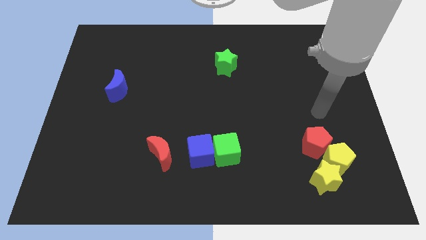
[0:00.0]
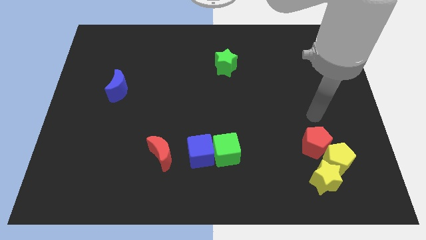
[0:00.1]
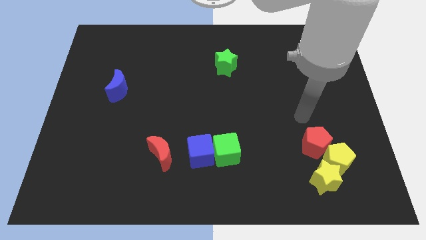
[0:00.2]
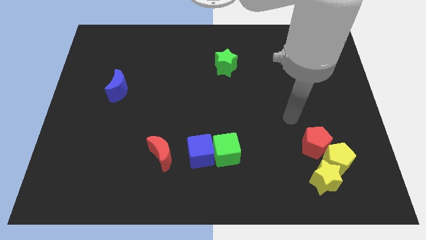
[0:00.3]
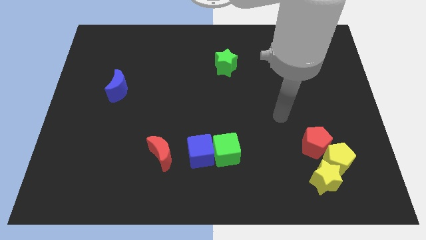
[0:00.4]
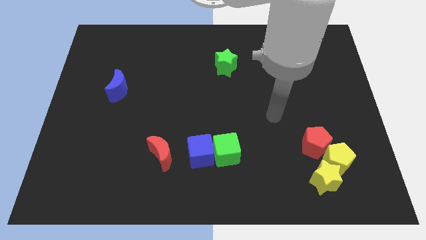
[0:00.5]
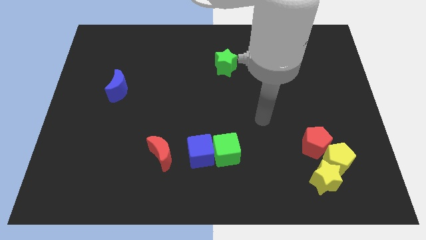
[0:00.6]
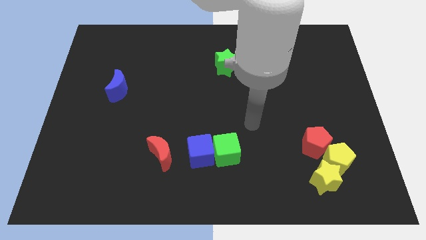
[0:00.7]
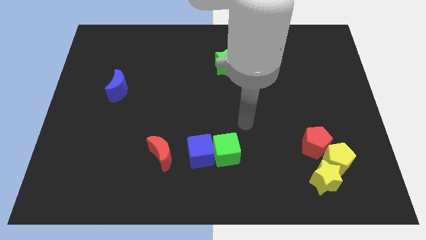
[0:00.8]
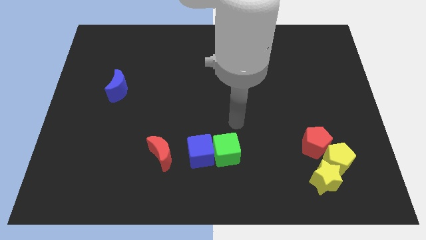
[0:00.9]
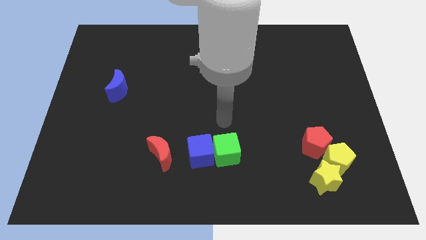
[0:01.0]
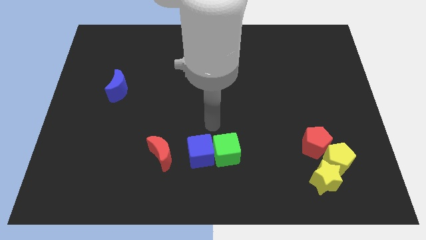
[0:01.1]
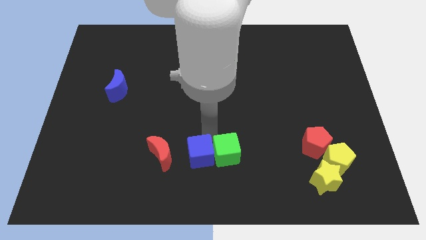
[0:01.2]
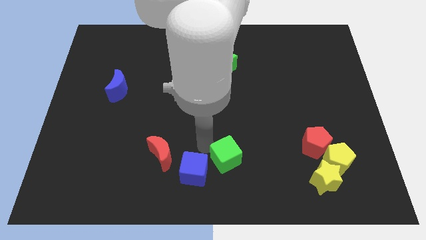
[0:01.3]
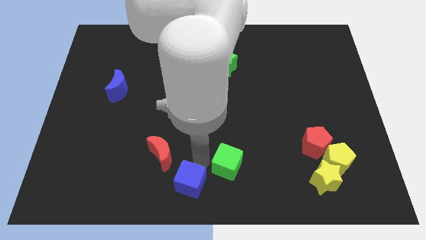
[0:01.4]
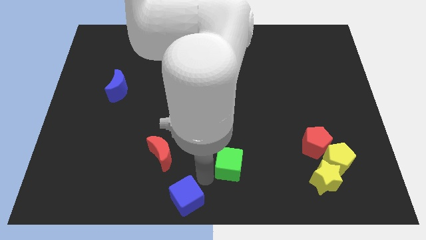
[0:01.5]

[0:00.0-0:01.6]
pull the green cube apart from the blue cube

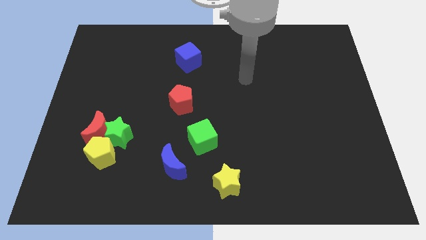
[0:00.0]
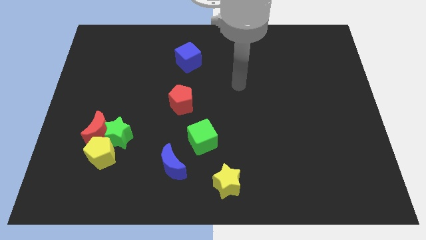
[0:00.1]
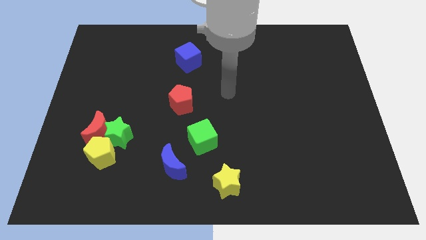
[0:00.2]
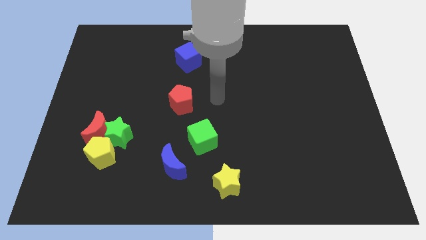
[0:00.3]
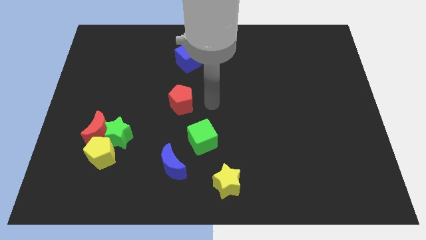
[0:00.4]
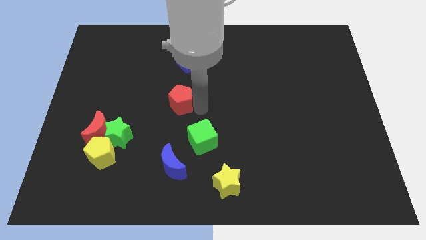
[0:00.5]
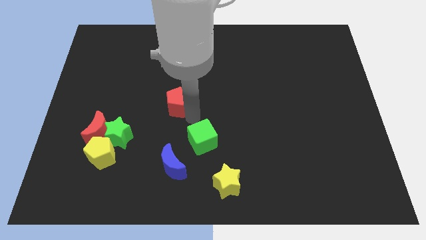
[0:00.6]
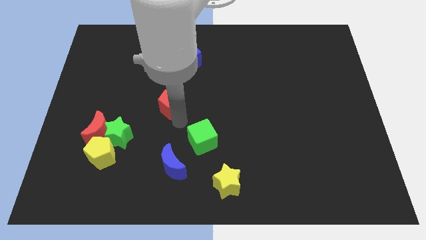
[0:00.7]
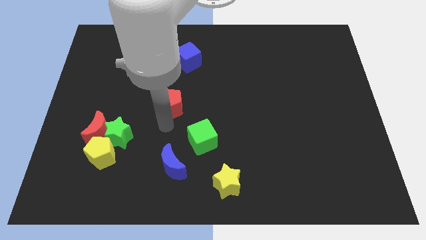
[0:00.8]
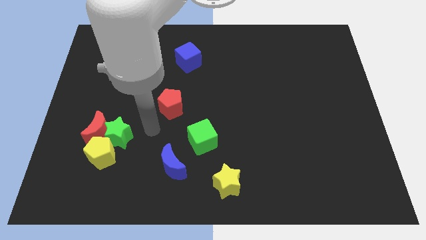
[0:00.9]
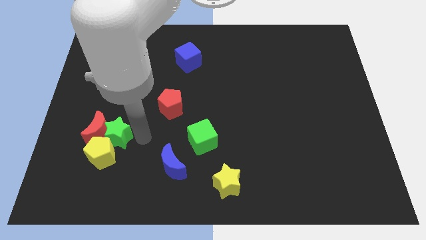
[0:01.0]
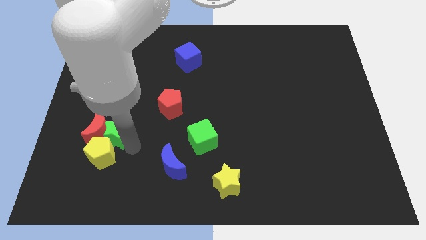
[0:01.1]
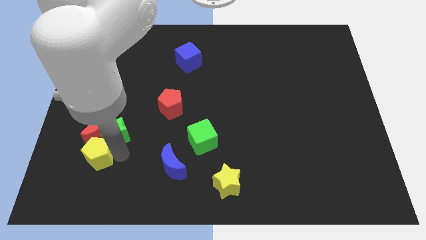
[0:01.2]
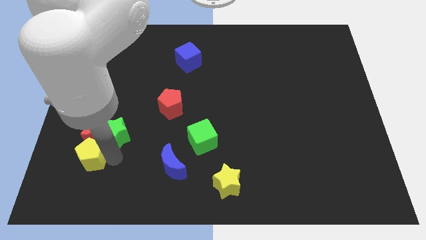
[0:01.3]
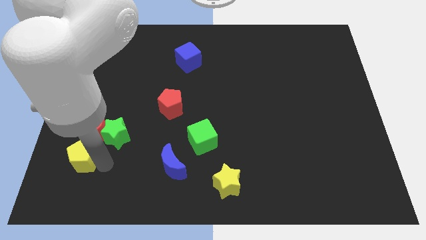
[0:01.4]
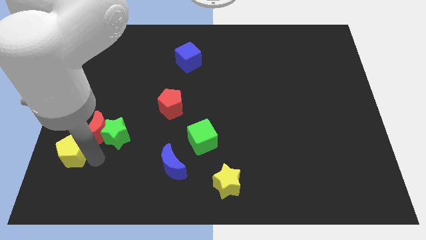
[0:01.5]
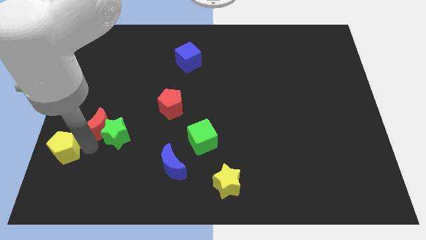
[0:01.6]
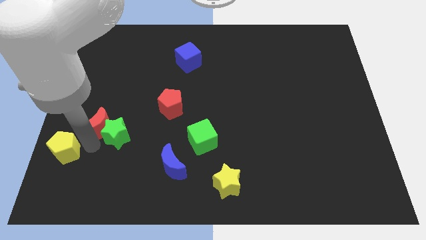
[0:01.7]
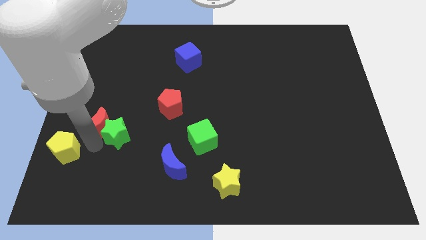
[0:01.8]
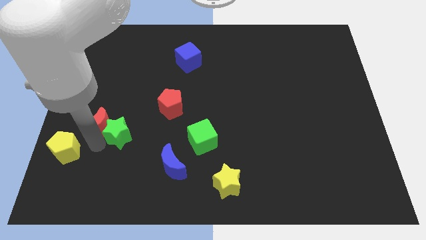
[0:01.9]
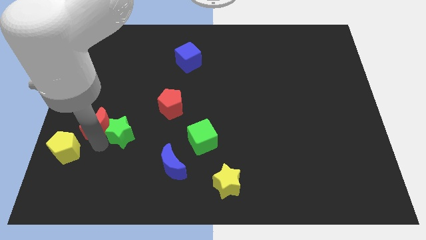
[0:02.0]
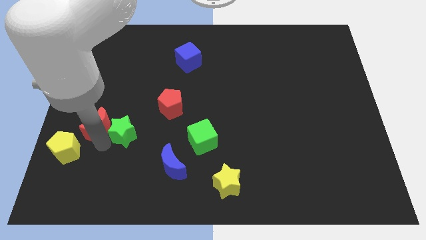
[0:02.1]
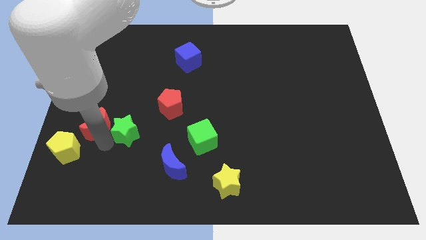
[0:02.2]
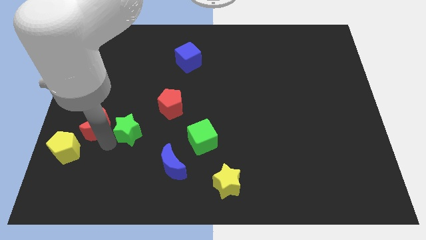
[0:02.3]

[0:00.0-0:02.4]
separate the green star from the red moon and yellow pentagon

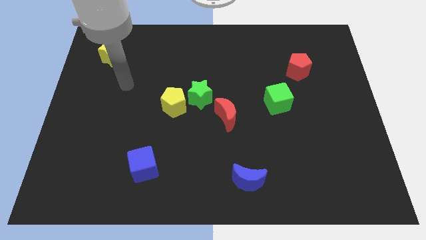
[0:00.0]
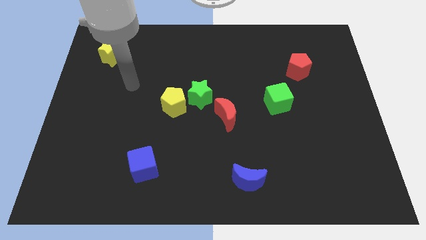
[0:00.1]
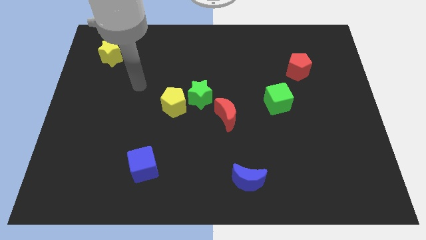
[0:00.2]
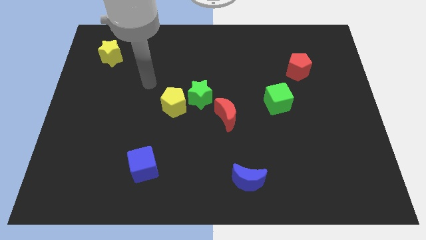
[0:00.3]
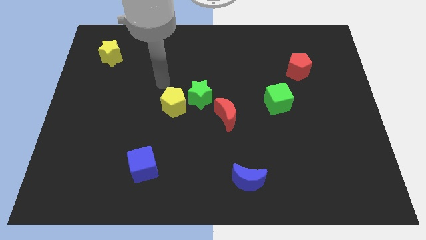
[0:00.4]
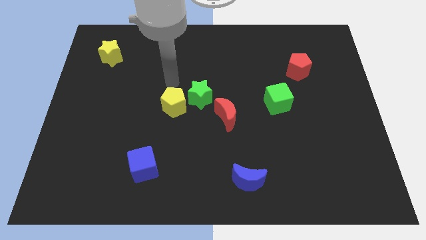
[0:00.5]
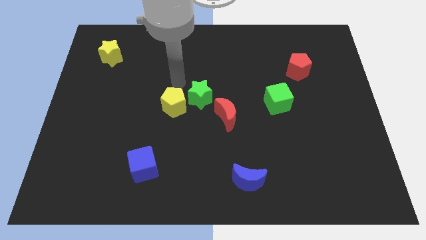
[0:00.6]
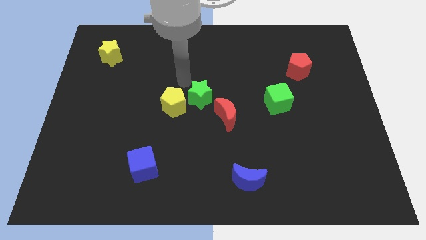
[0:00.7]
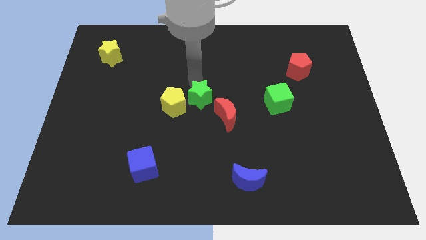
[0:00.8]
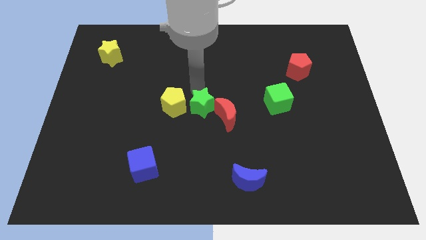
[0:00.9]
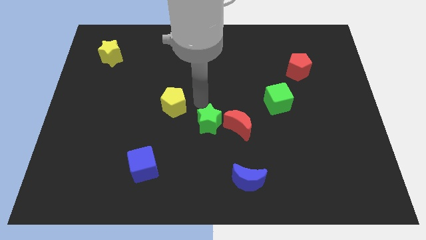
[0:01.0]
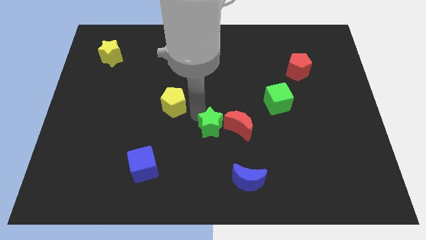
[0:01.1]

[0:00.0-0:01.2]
move the yellow pentagon away from the green star

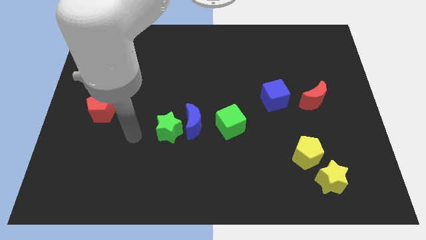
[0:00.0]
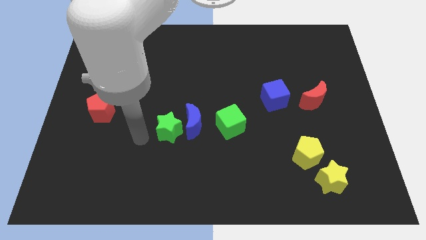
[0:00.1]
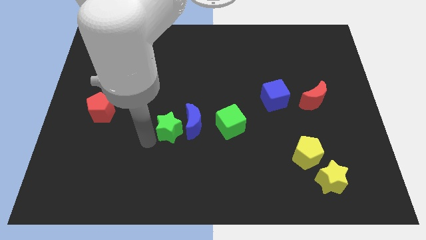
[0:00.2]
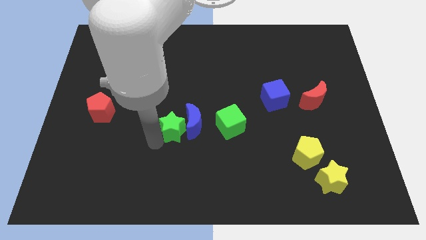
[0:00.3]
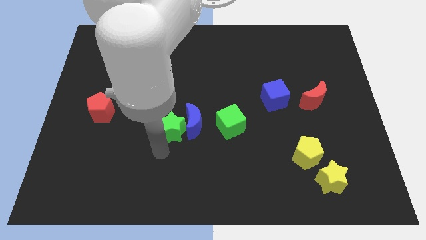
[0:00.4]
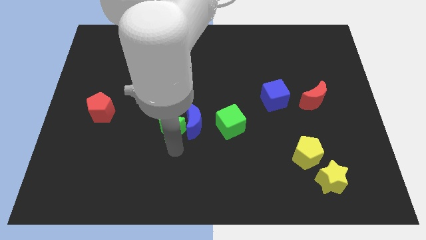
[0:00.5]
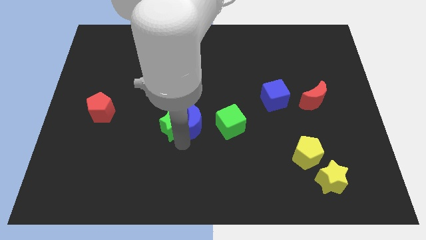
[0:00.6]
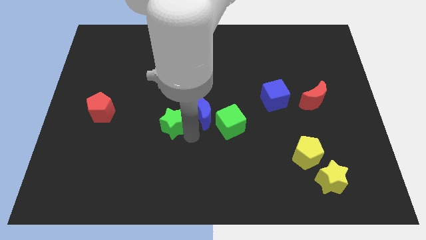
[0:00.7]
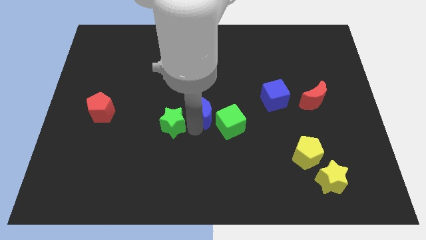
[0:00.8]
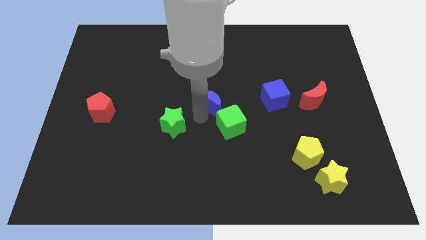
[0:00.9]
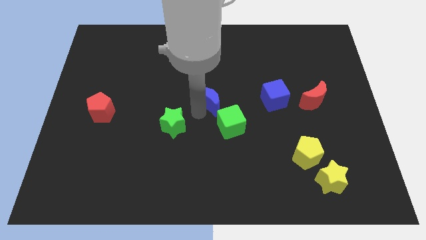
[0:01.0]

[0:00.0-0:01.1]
separate the green star from the blue moon

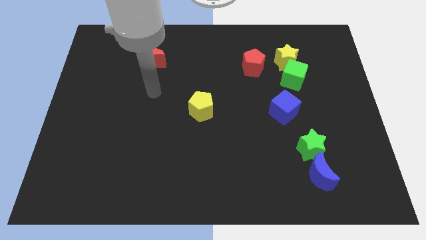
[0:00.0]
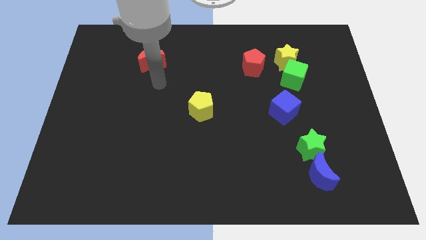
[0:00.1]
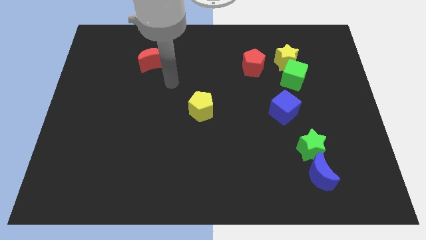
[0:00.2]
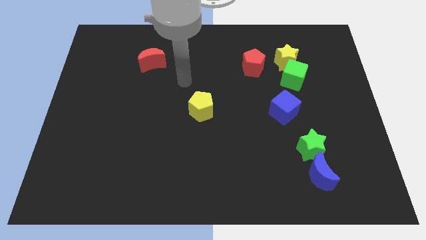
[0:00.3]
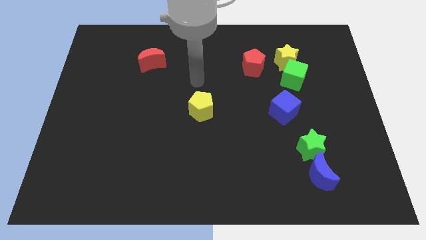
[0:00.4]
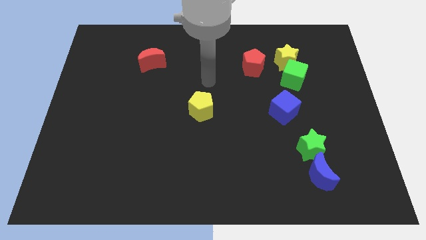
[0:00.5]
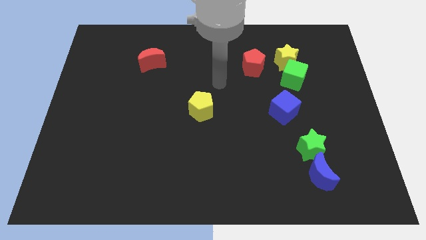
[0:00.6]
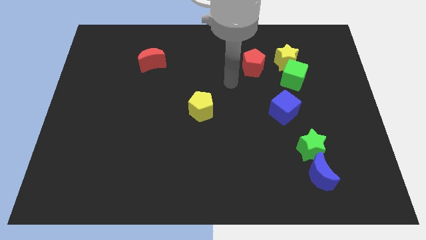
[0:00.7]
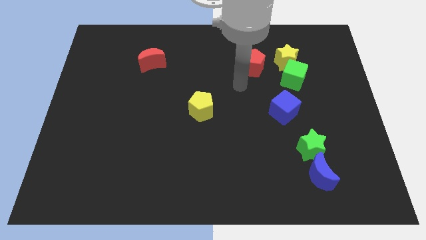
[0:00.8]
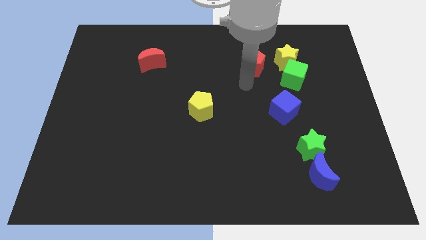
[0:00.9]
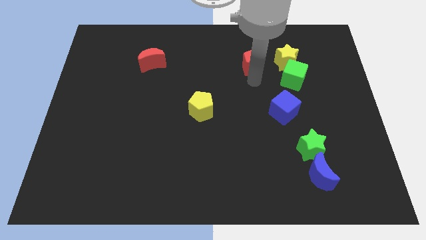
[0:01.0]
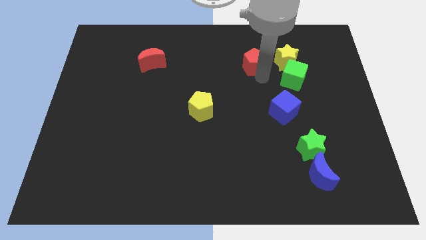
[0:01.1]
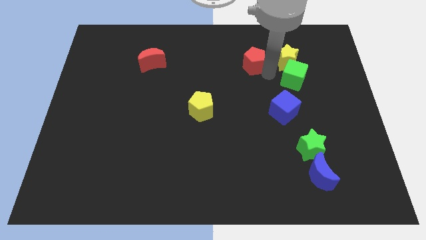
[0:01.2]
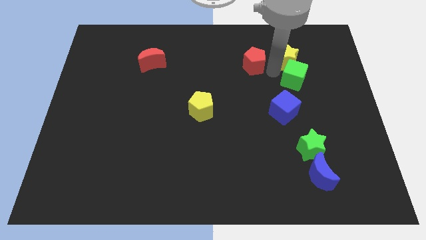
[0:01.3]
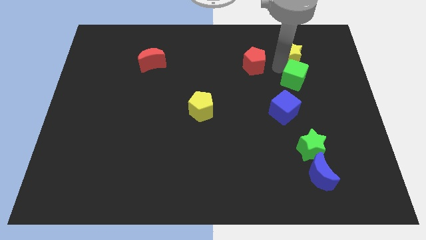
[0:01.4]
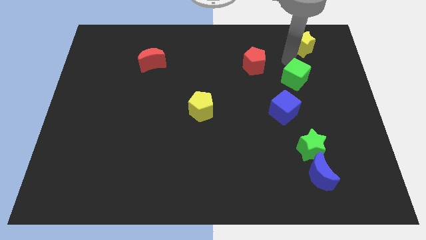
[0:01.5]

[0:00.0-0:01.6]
separate the green cube from the yellow star

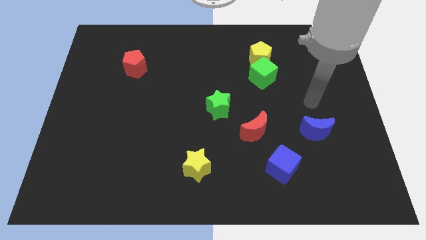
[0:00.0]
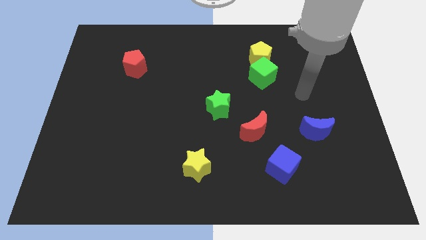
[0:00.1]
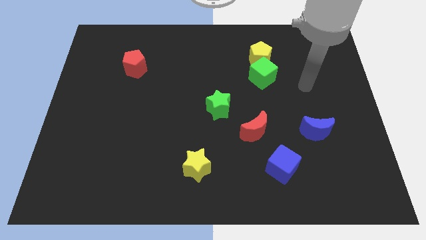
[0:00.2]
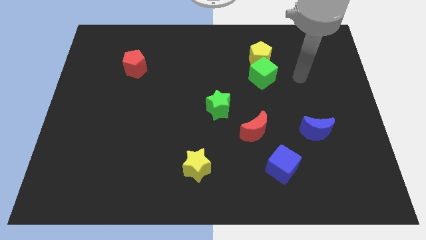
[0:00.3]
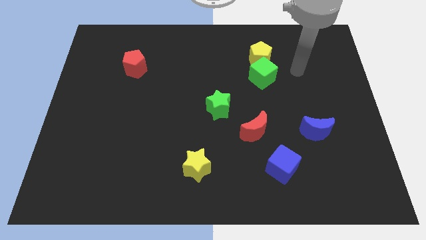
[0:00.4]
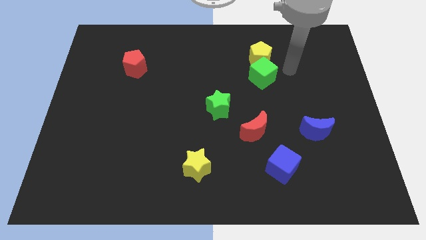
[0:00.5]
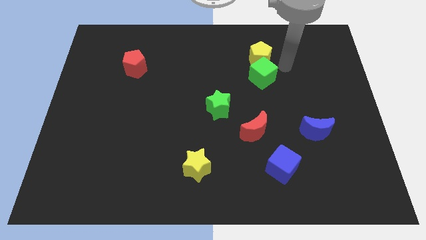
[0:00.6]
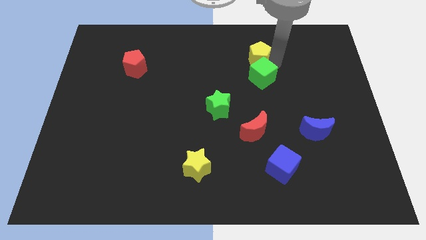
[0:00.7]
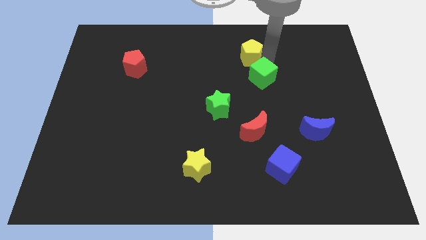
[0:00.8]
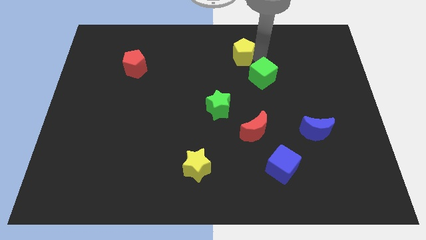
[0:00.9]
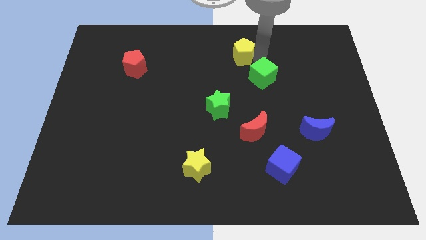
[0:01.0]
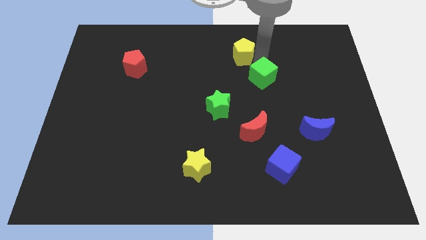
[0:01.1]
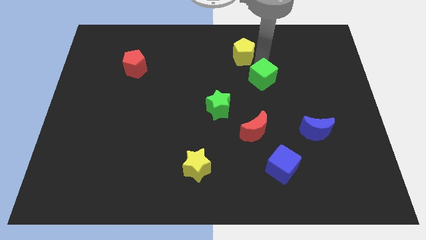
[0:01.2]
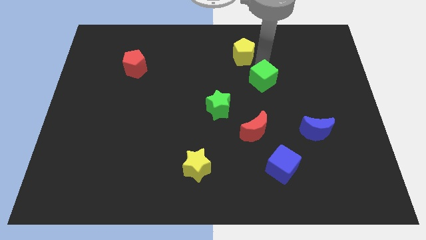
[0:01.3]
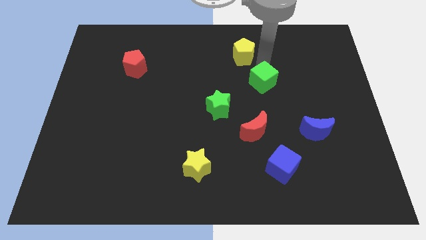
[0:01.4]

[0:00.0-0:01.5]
move the green cube away from the yellow pentagon
